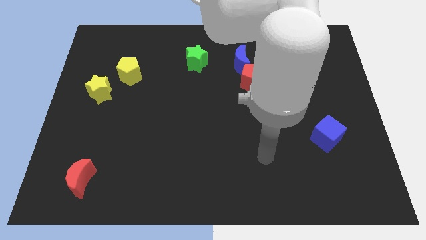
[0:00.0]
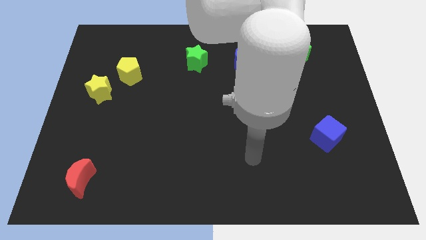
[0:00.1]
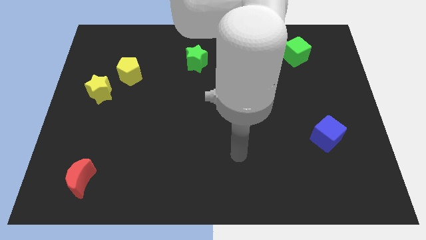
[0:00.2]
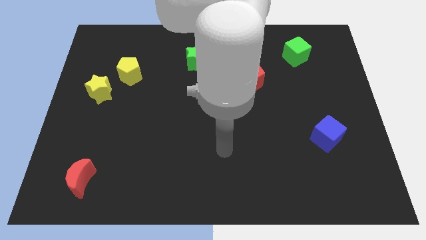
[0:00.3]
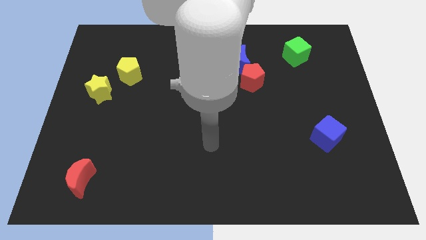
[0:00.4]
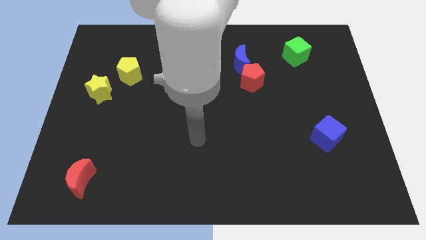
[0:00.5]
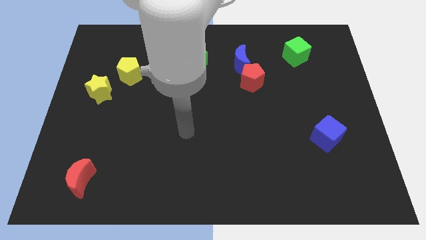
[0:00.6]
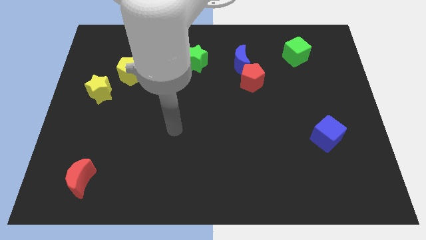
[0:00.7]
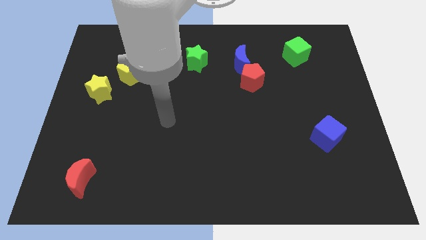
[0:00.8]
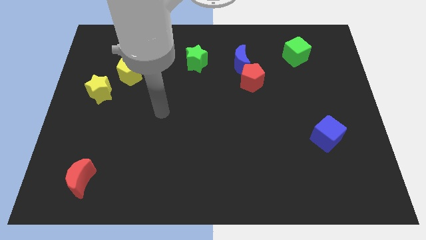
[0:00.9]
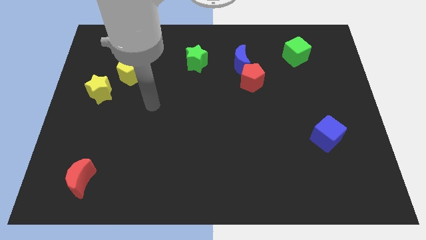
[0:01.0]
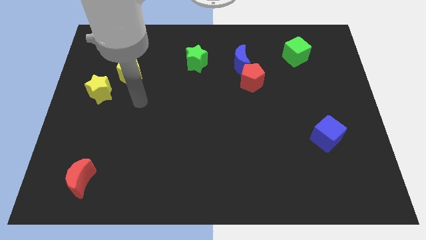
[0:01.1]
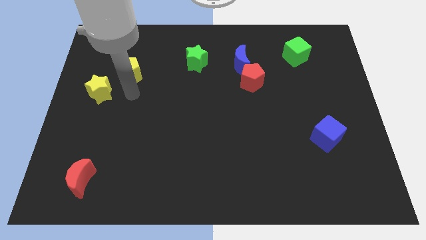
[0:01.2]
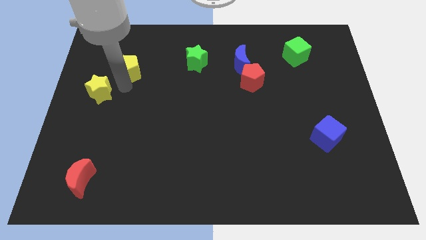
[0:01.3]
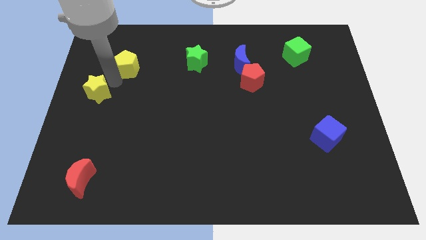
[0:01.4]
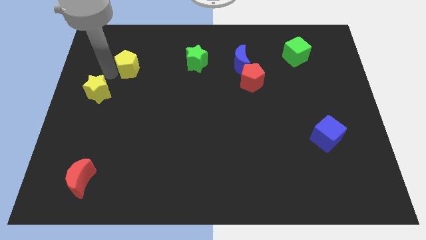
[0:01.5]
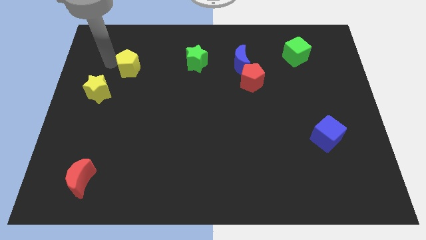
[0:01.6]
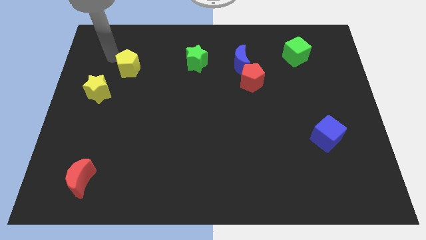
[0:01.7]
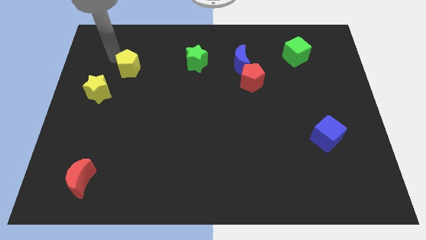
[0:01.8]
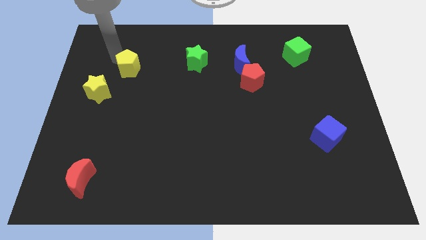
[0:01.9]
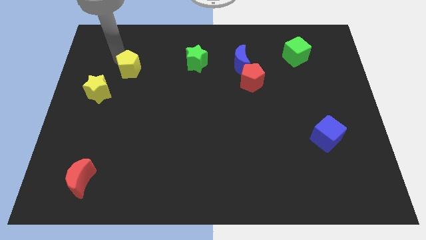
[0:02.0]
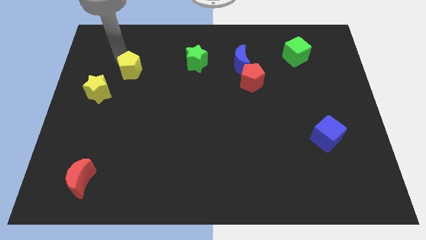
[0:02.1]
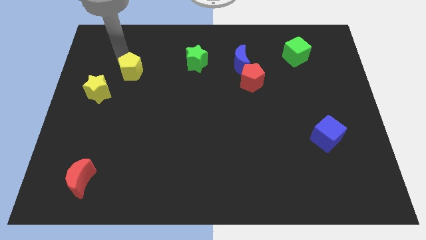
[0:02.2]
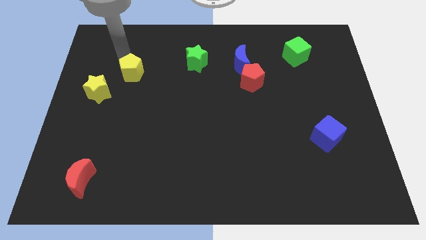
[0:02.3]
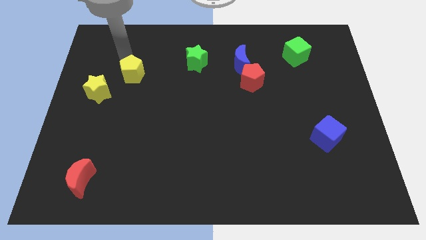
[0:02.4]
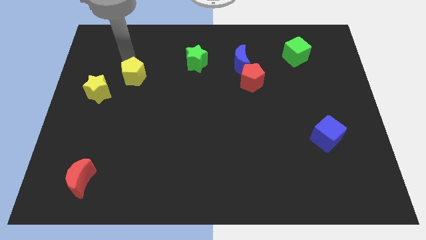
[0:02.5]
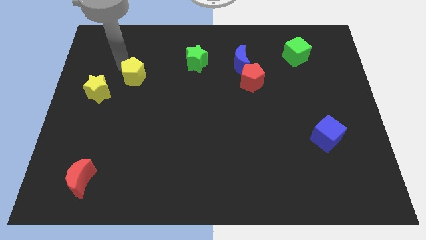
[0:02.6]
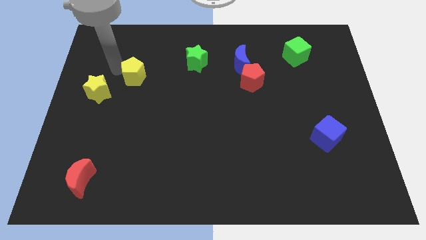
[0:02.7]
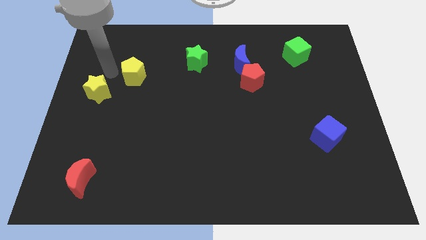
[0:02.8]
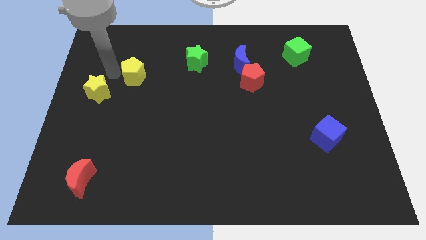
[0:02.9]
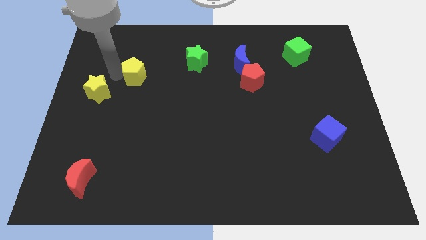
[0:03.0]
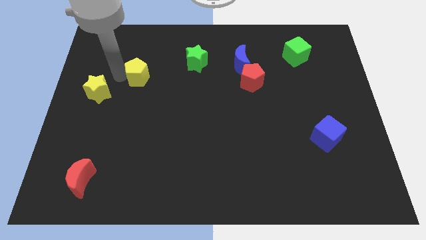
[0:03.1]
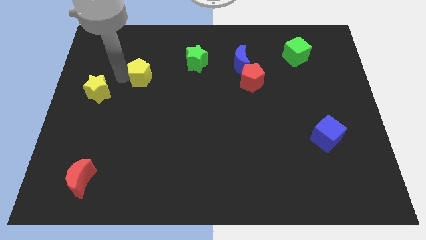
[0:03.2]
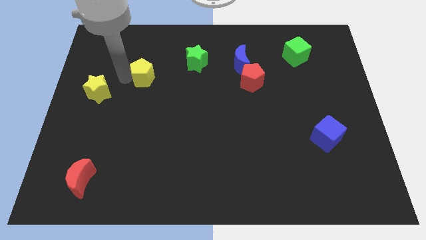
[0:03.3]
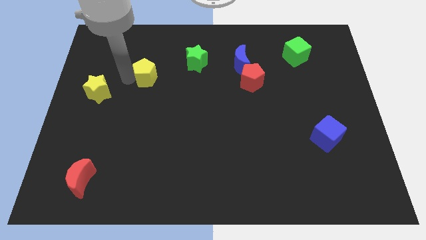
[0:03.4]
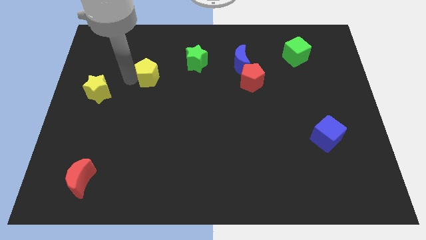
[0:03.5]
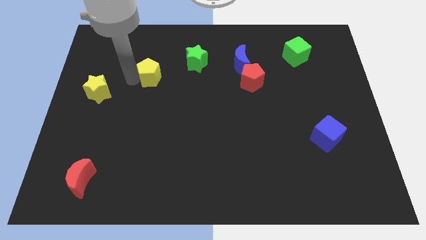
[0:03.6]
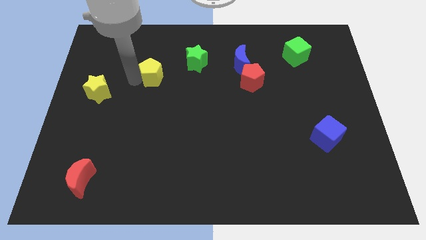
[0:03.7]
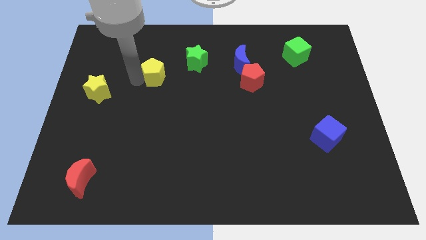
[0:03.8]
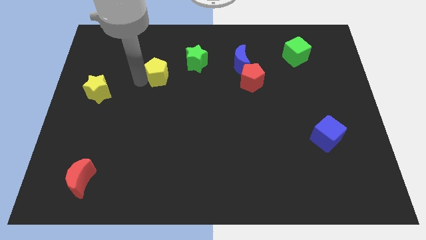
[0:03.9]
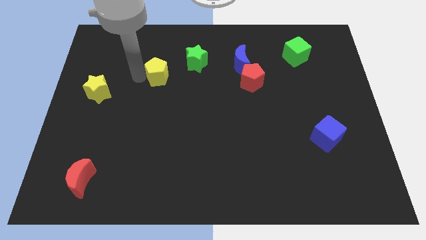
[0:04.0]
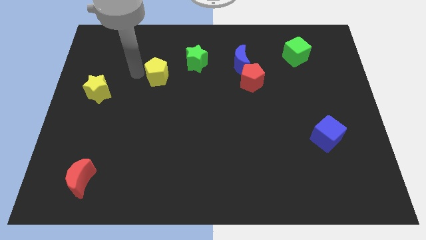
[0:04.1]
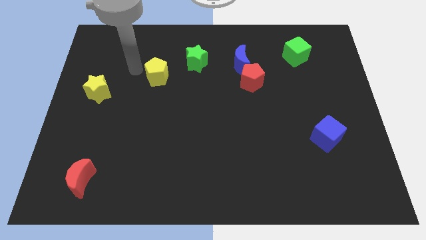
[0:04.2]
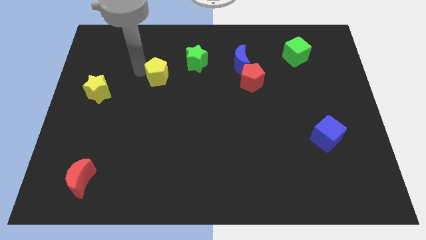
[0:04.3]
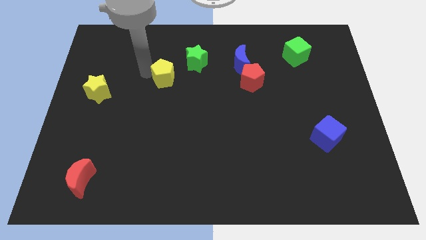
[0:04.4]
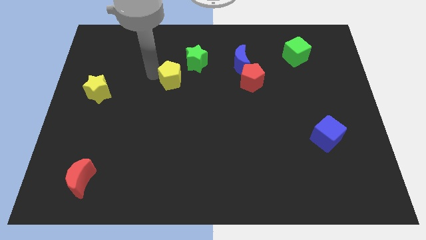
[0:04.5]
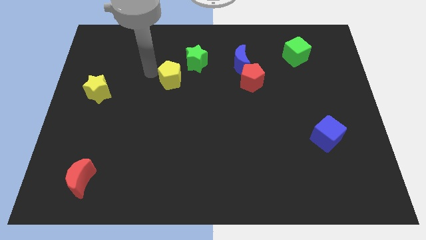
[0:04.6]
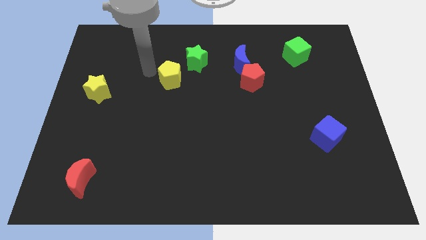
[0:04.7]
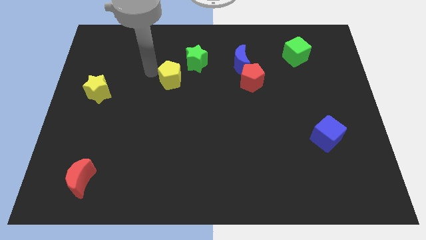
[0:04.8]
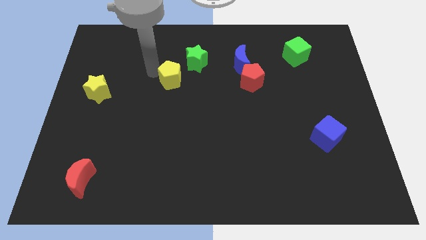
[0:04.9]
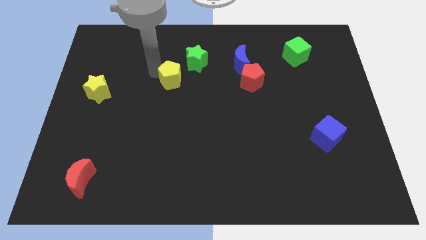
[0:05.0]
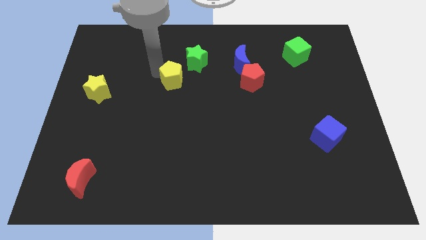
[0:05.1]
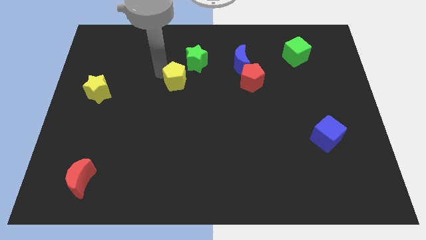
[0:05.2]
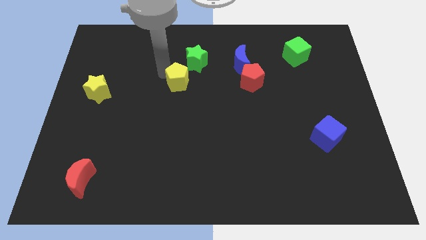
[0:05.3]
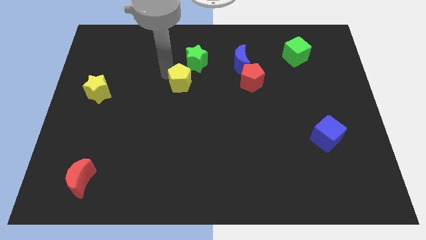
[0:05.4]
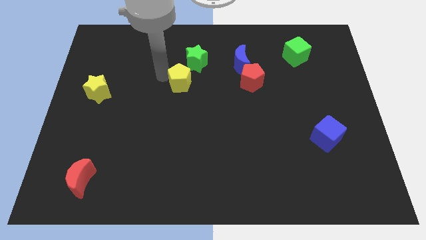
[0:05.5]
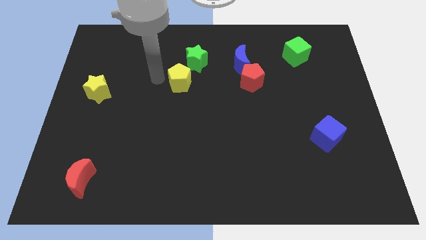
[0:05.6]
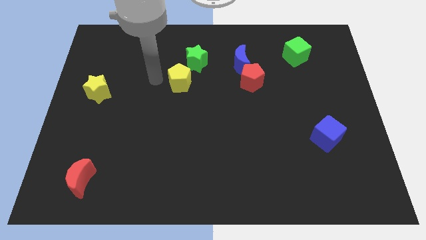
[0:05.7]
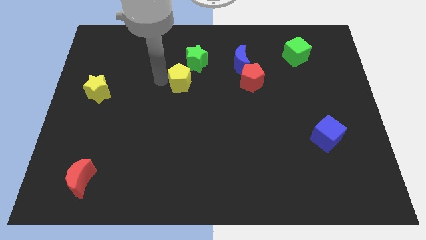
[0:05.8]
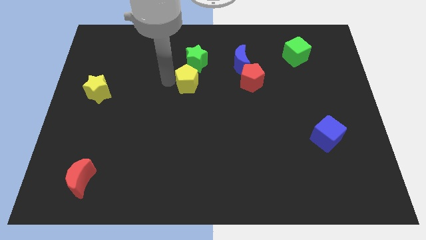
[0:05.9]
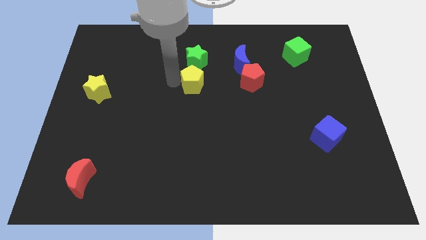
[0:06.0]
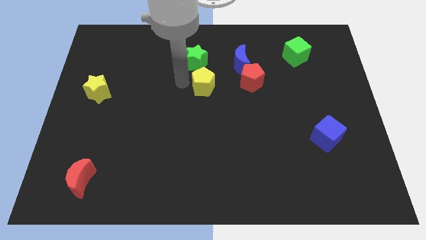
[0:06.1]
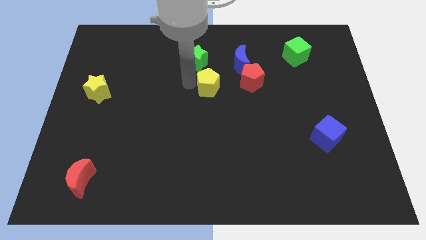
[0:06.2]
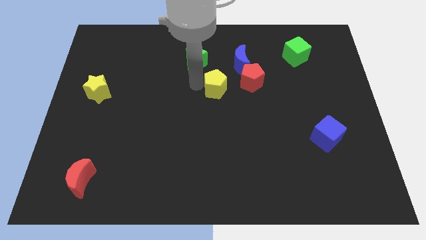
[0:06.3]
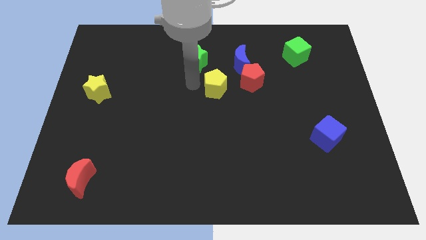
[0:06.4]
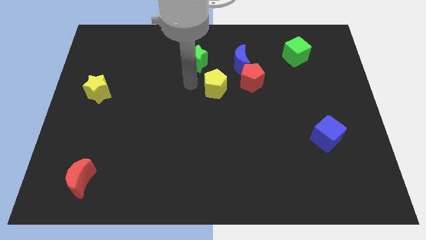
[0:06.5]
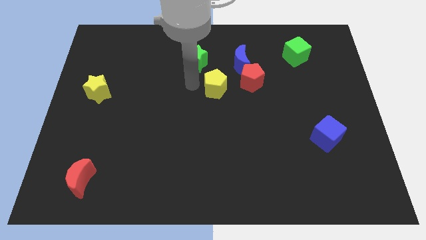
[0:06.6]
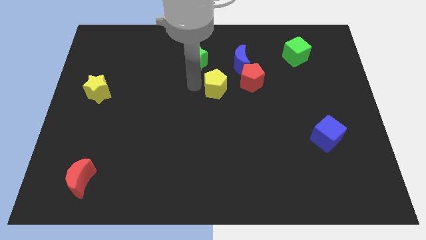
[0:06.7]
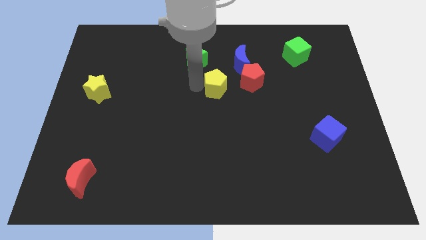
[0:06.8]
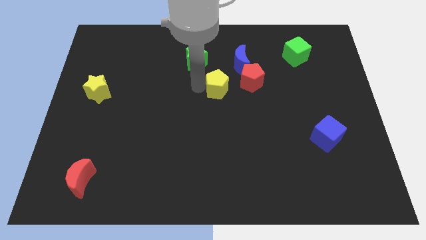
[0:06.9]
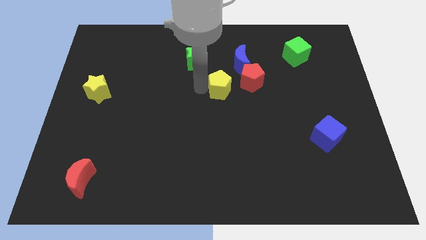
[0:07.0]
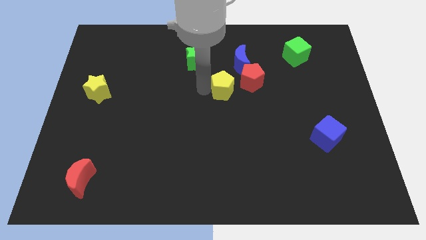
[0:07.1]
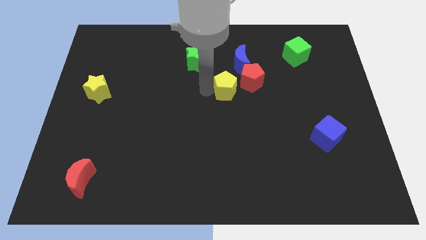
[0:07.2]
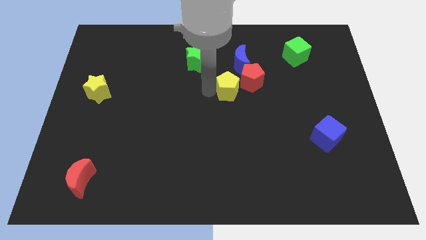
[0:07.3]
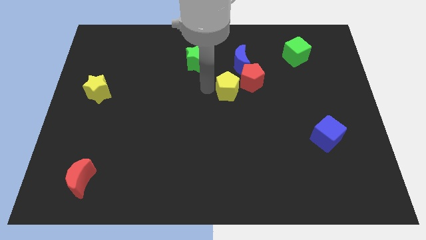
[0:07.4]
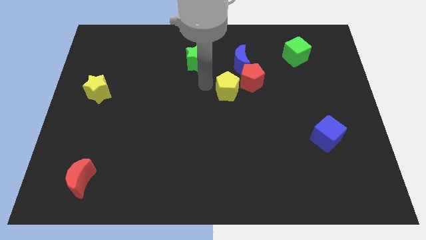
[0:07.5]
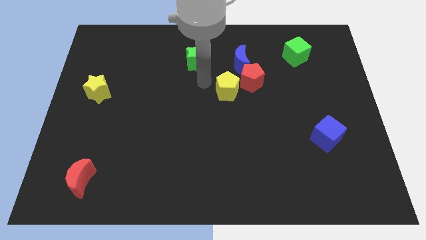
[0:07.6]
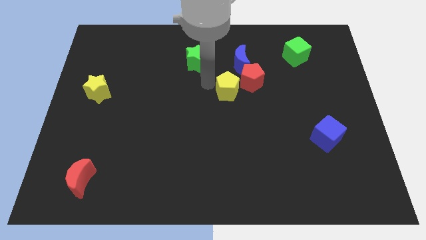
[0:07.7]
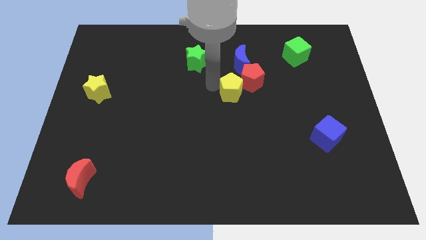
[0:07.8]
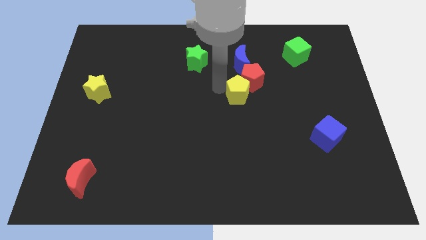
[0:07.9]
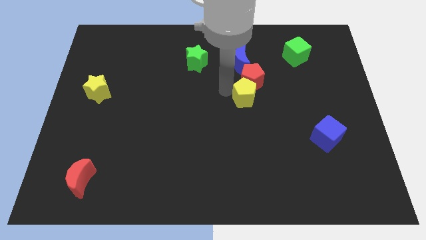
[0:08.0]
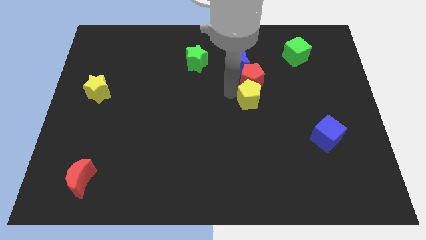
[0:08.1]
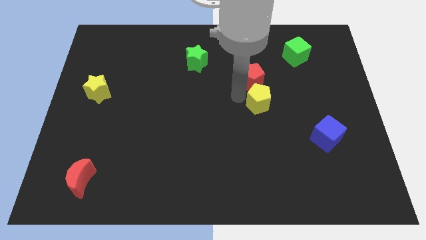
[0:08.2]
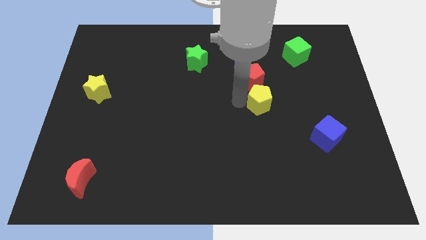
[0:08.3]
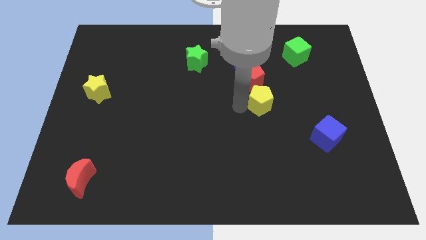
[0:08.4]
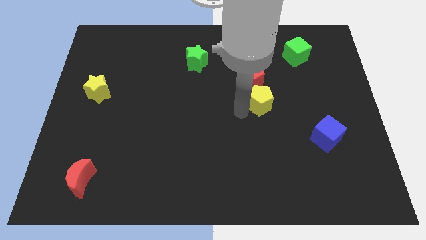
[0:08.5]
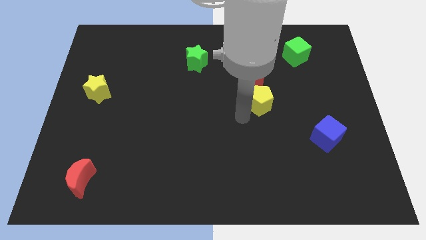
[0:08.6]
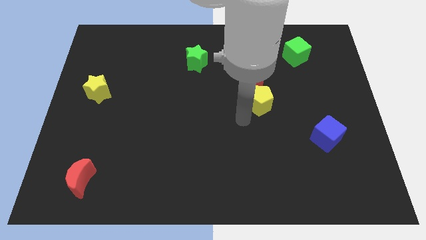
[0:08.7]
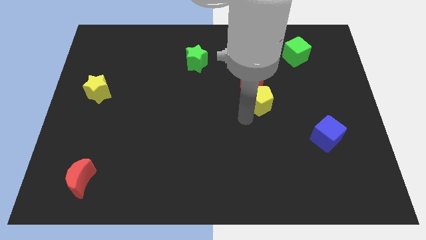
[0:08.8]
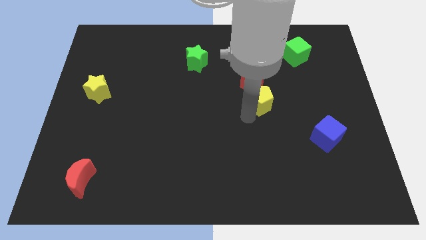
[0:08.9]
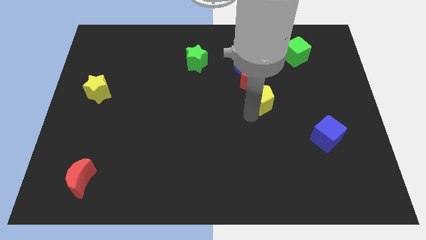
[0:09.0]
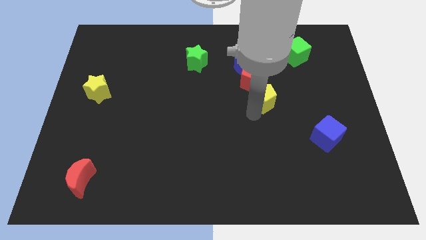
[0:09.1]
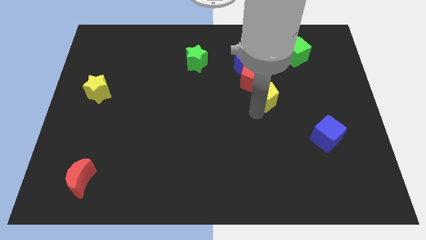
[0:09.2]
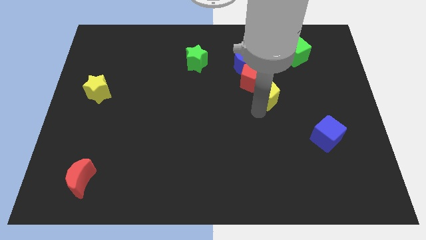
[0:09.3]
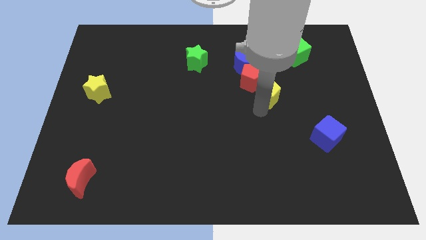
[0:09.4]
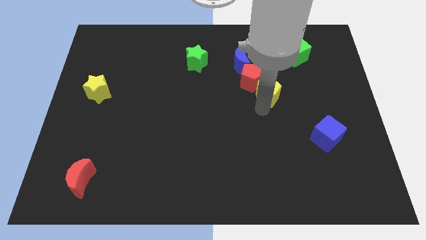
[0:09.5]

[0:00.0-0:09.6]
move the yellow pentagon right of the red pentagon
